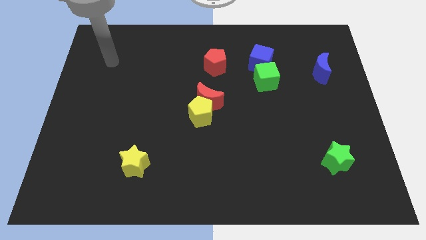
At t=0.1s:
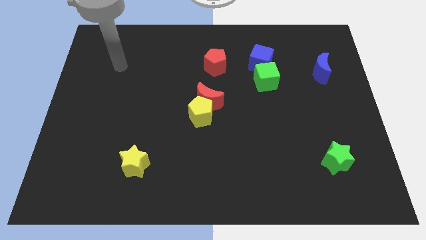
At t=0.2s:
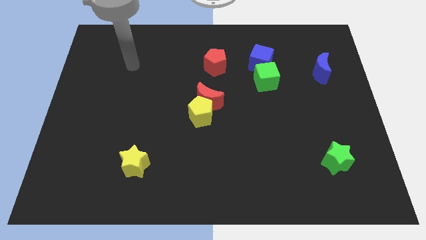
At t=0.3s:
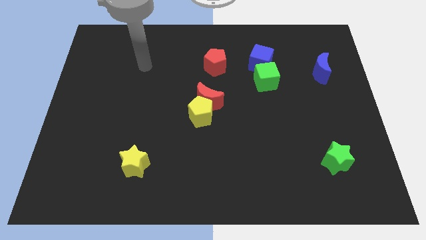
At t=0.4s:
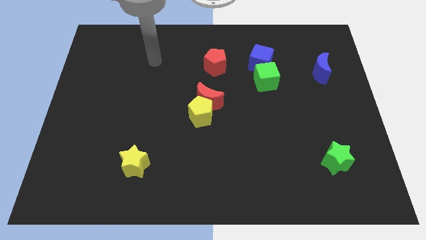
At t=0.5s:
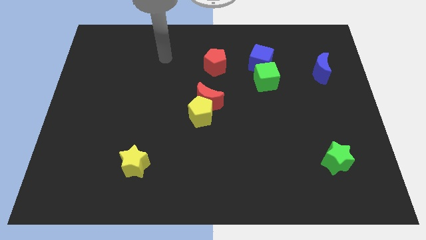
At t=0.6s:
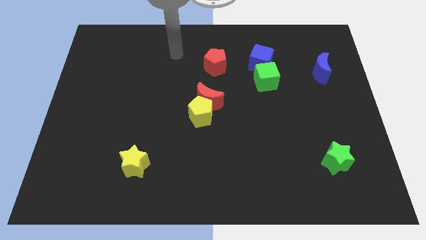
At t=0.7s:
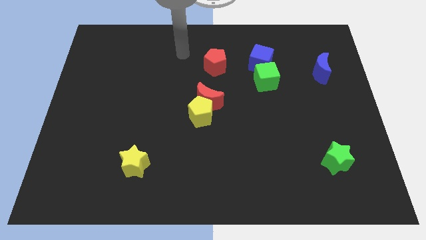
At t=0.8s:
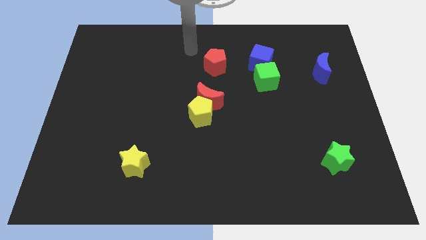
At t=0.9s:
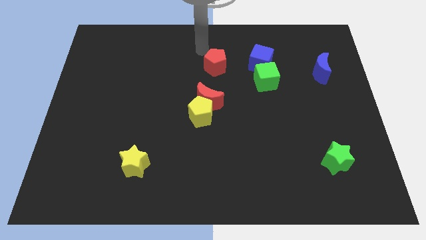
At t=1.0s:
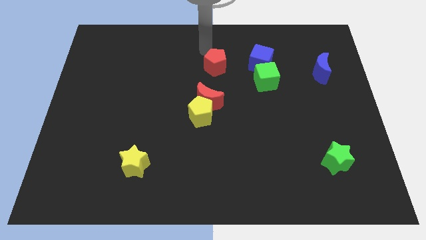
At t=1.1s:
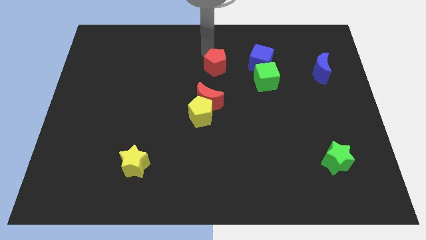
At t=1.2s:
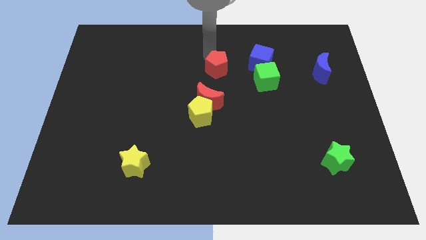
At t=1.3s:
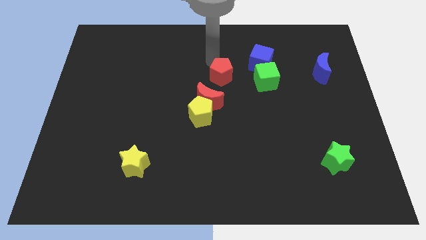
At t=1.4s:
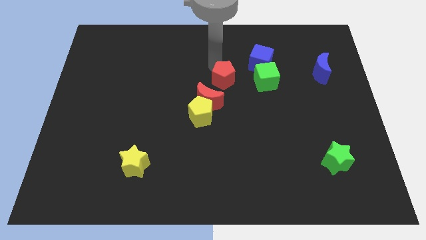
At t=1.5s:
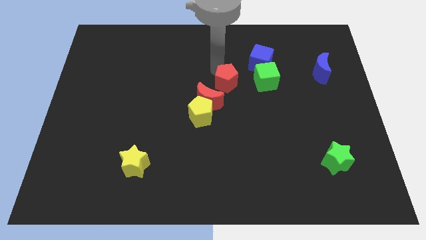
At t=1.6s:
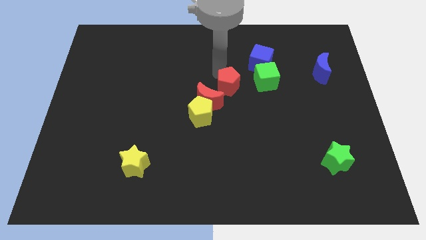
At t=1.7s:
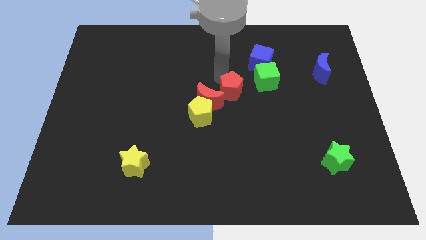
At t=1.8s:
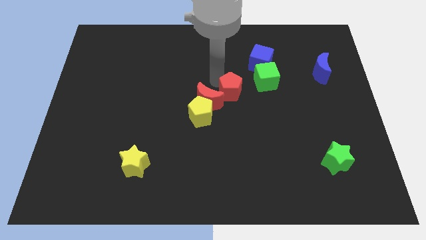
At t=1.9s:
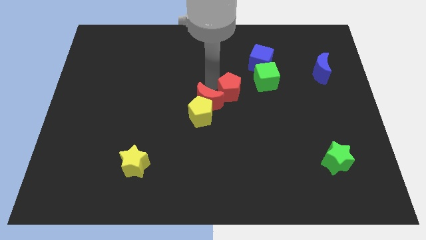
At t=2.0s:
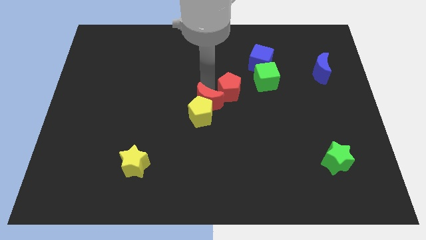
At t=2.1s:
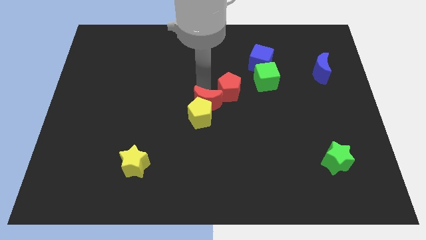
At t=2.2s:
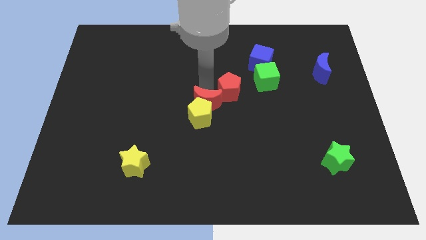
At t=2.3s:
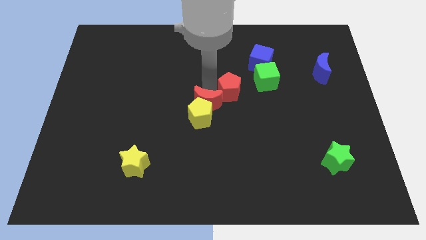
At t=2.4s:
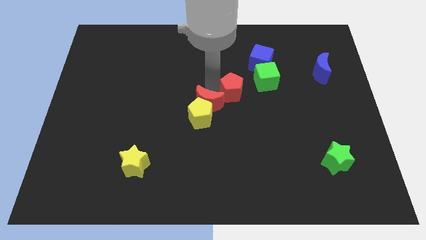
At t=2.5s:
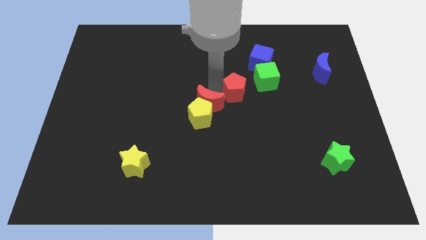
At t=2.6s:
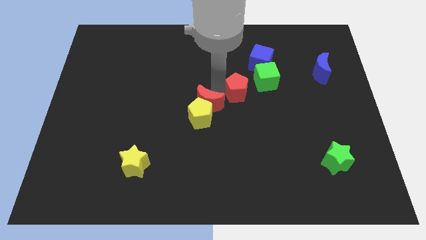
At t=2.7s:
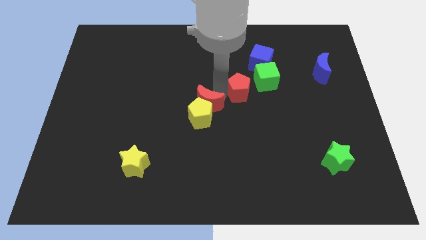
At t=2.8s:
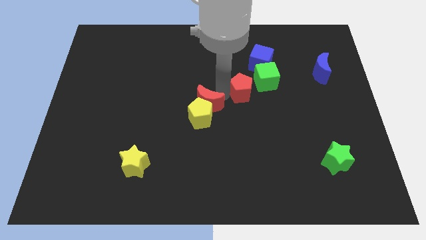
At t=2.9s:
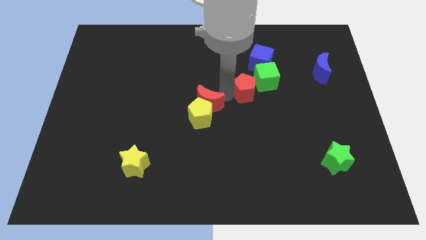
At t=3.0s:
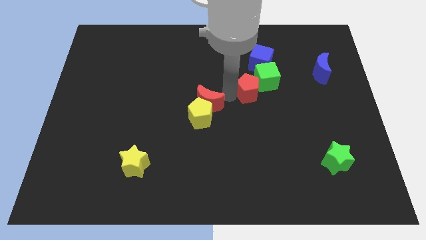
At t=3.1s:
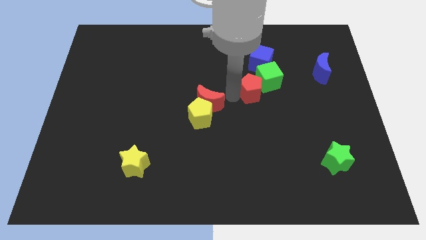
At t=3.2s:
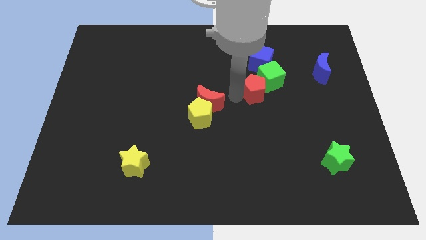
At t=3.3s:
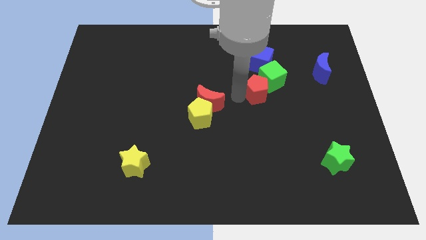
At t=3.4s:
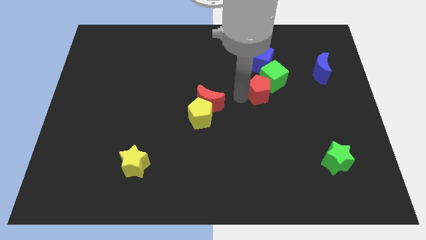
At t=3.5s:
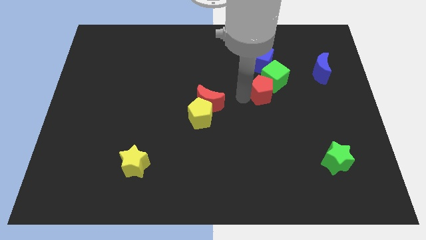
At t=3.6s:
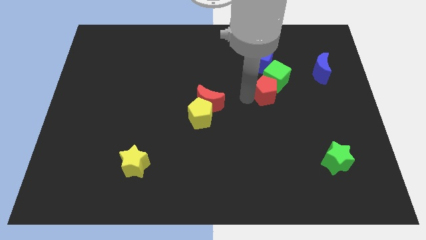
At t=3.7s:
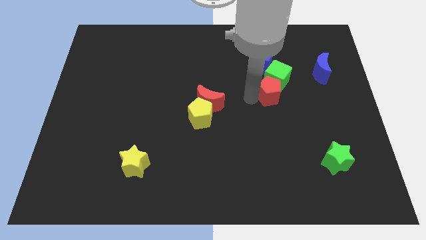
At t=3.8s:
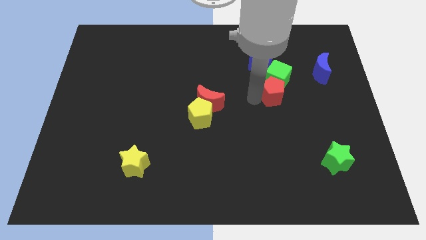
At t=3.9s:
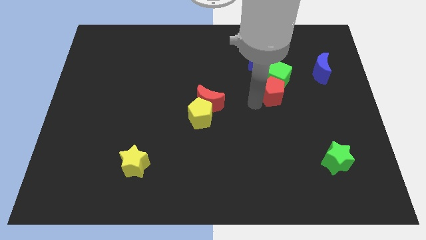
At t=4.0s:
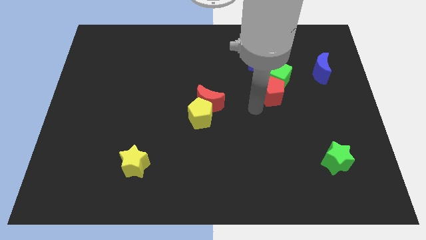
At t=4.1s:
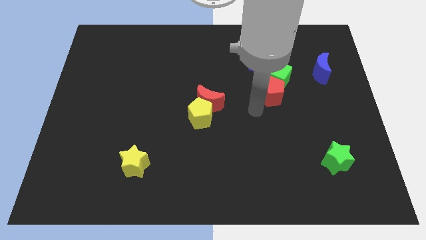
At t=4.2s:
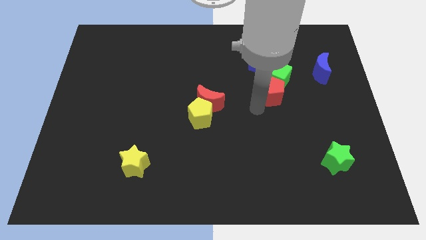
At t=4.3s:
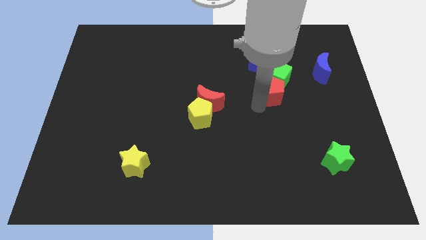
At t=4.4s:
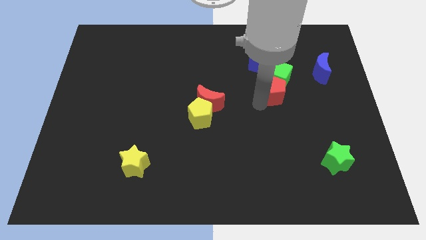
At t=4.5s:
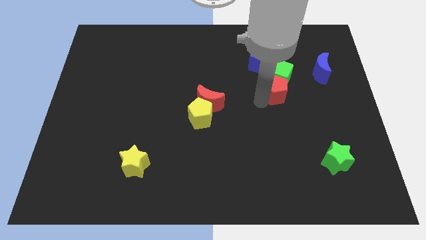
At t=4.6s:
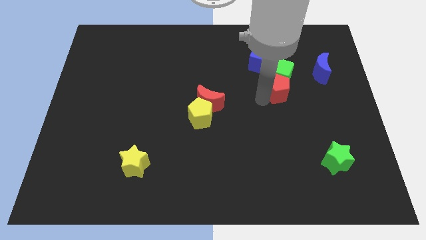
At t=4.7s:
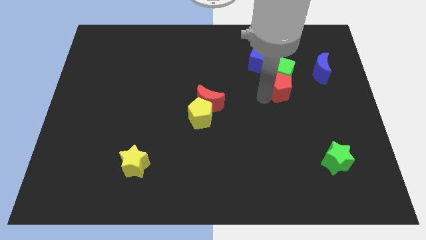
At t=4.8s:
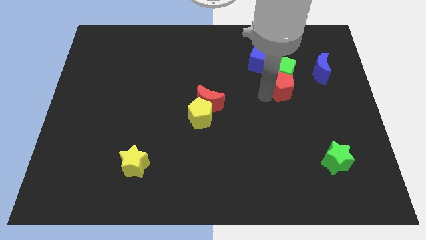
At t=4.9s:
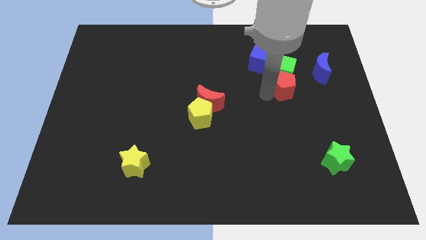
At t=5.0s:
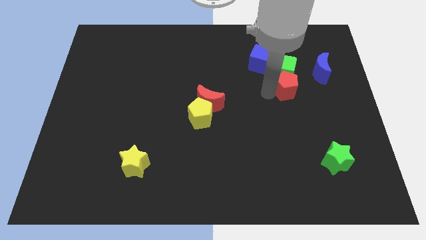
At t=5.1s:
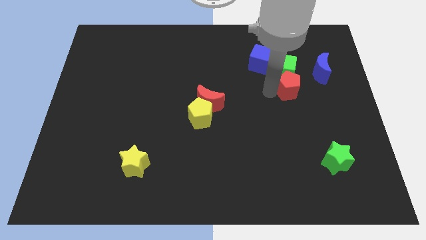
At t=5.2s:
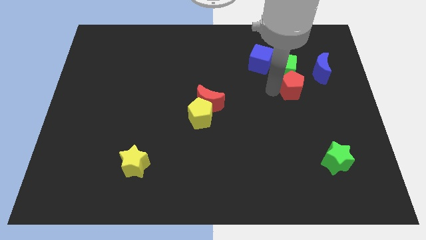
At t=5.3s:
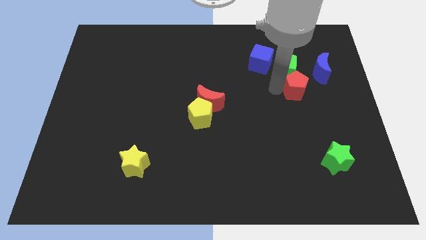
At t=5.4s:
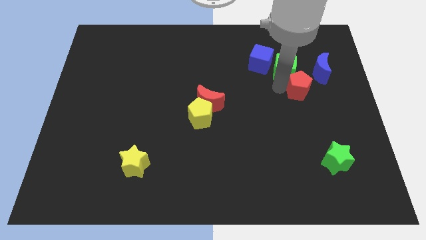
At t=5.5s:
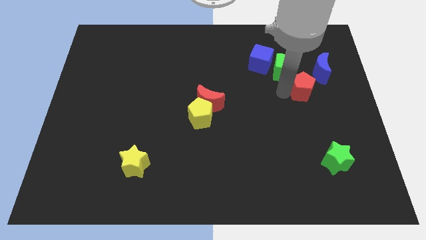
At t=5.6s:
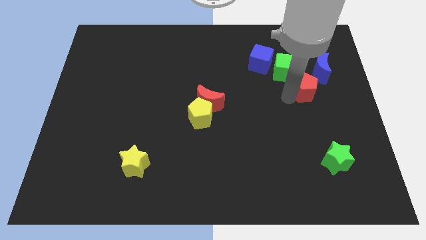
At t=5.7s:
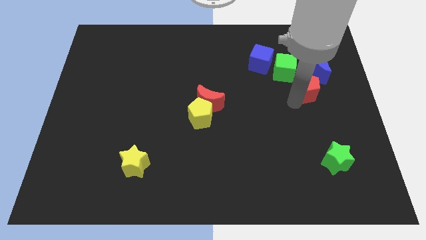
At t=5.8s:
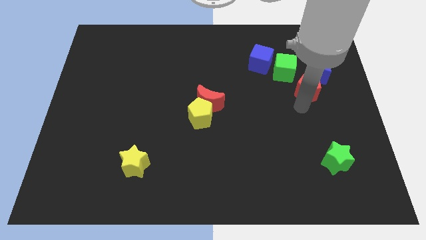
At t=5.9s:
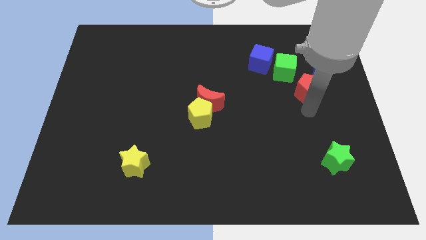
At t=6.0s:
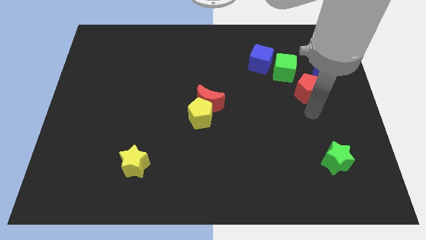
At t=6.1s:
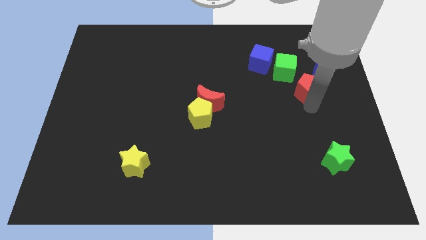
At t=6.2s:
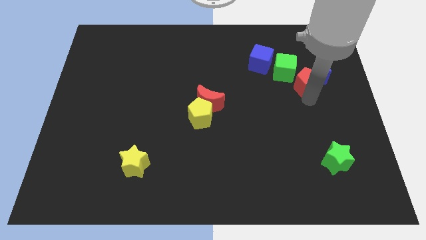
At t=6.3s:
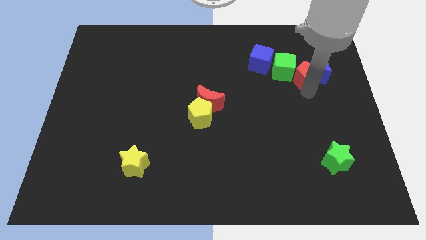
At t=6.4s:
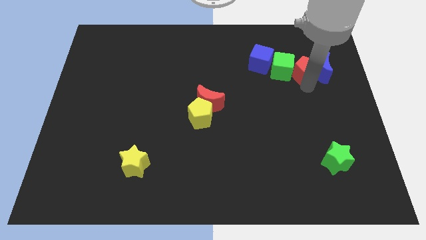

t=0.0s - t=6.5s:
slide the red pentagon just right of the blue cube
